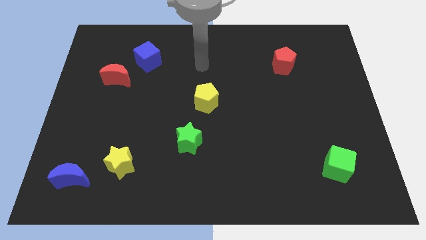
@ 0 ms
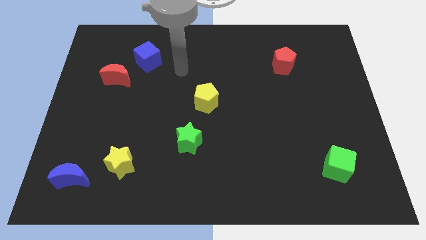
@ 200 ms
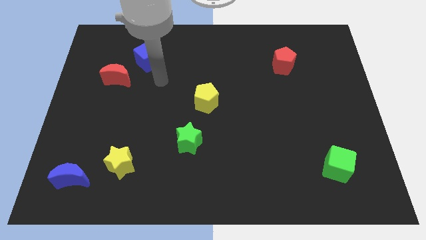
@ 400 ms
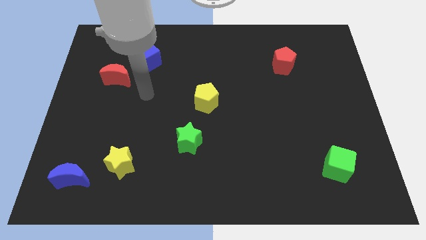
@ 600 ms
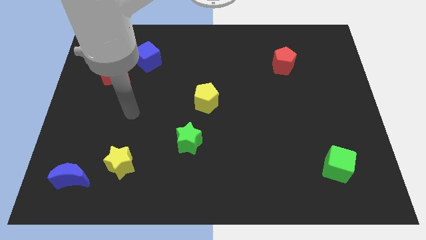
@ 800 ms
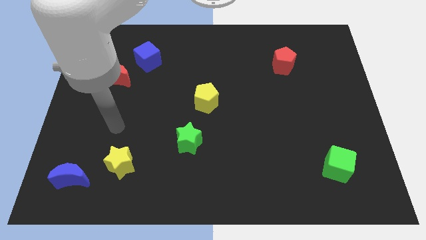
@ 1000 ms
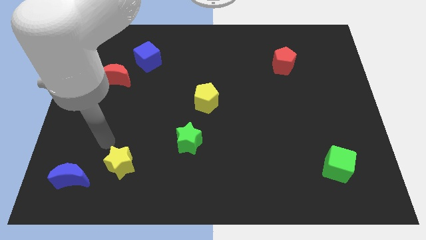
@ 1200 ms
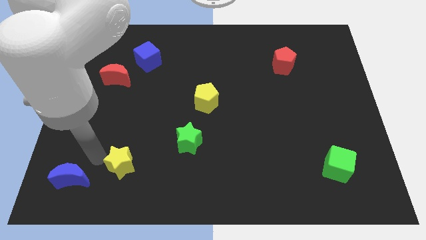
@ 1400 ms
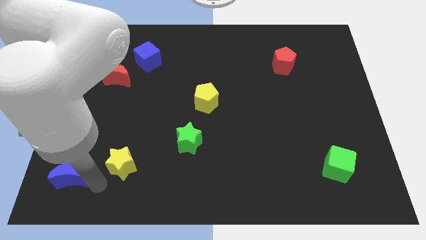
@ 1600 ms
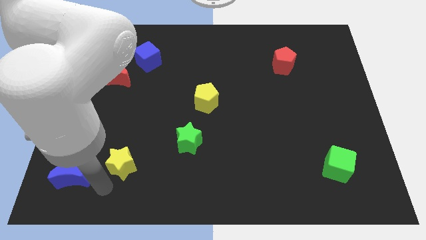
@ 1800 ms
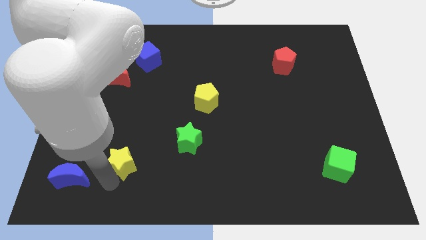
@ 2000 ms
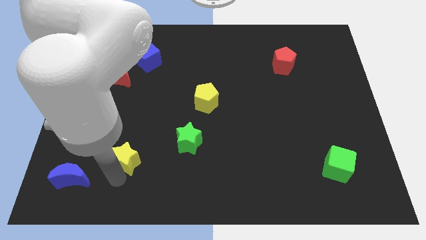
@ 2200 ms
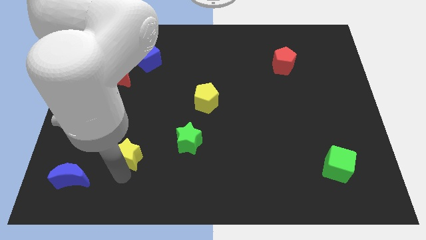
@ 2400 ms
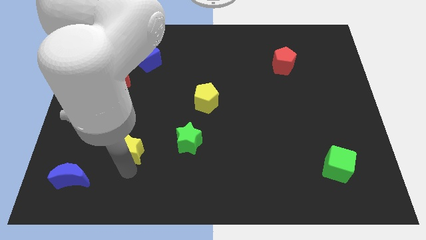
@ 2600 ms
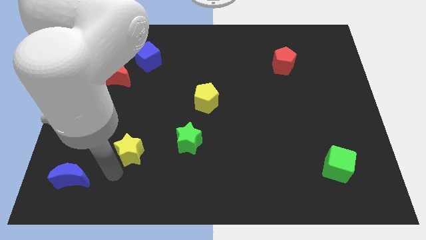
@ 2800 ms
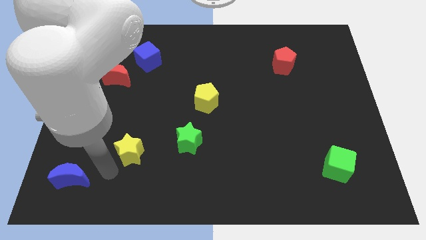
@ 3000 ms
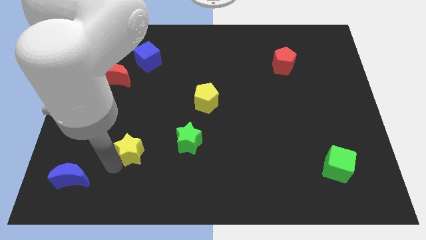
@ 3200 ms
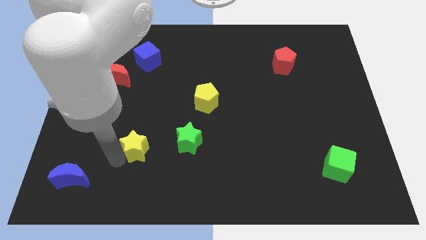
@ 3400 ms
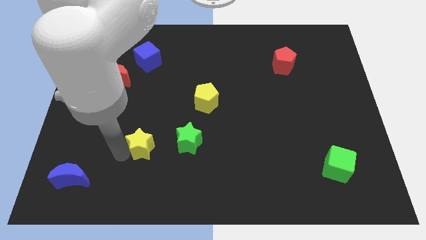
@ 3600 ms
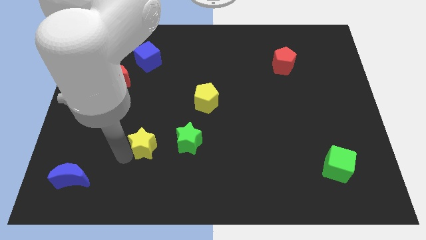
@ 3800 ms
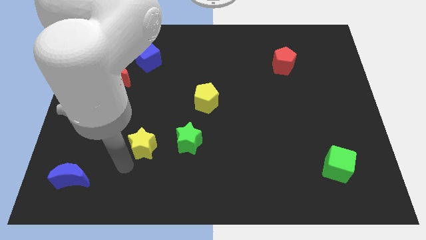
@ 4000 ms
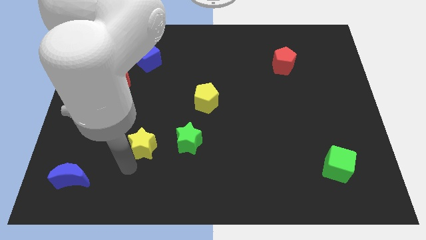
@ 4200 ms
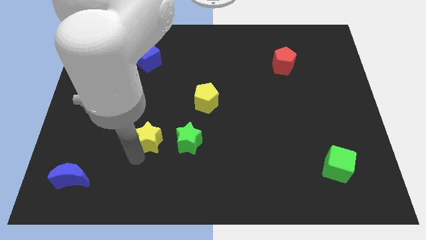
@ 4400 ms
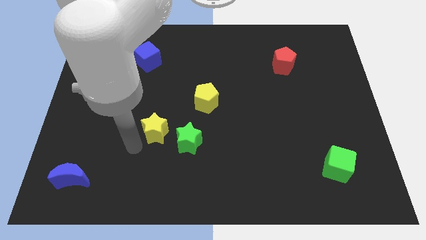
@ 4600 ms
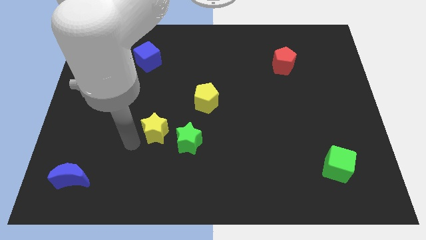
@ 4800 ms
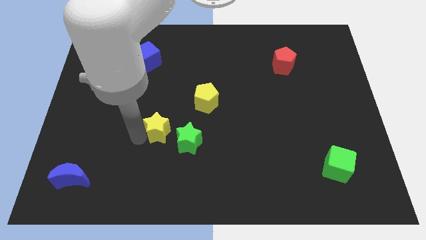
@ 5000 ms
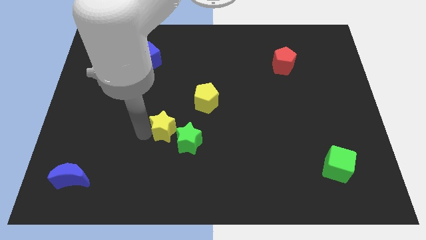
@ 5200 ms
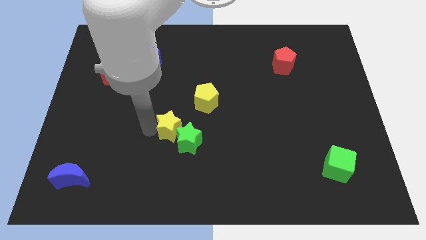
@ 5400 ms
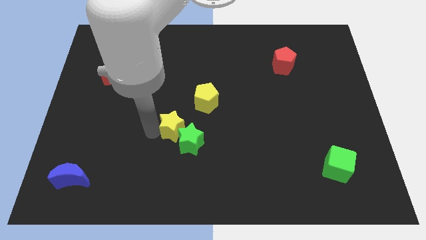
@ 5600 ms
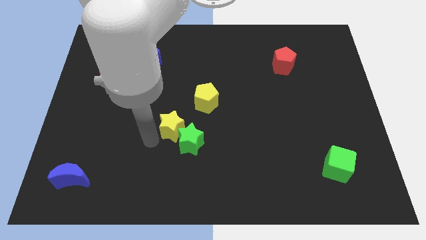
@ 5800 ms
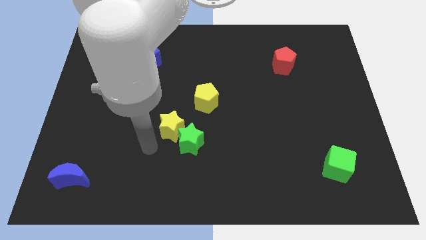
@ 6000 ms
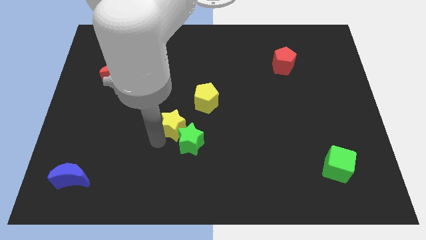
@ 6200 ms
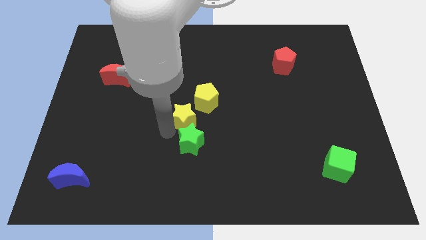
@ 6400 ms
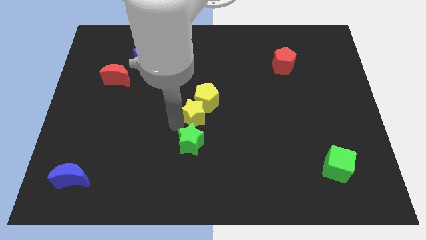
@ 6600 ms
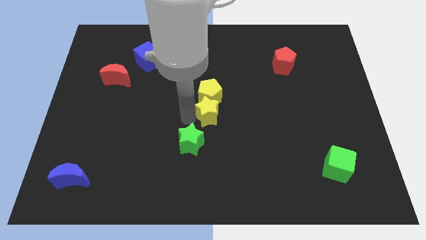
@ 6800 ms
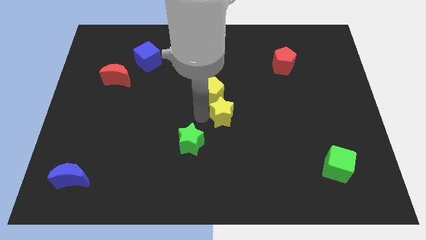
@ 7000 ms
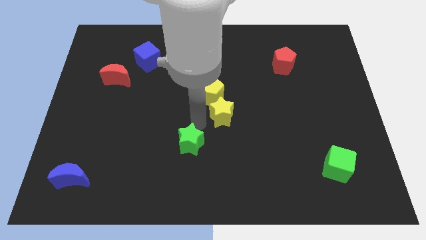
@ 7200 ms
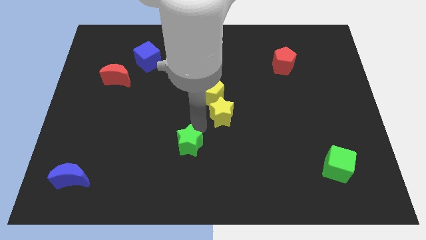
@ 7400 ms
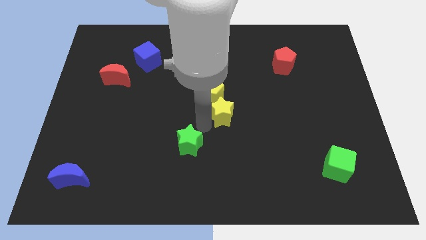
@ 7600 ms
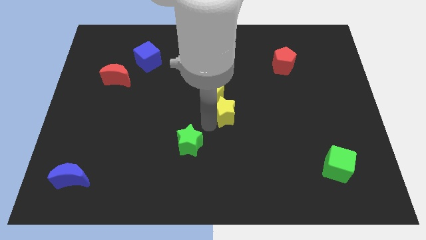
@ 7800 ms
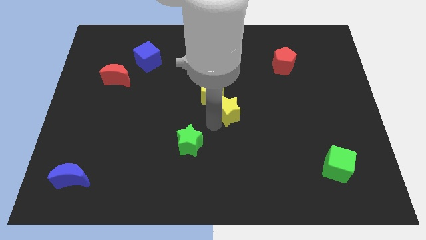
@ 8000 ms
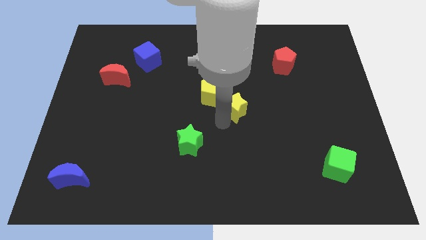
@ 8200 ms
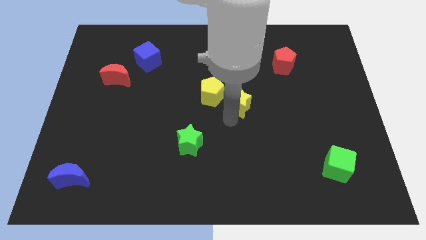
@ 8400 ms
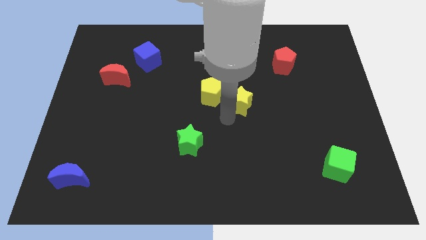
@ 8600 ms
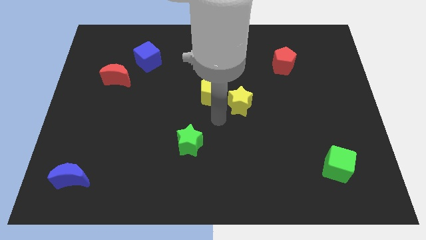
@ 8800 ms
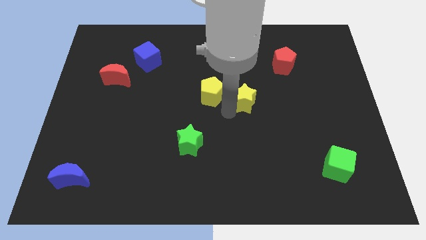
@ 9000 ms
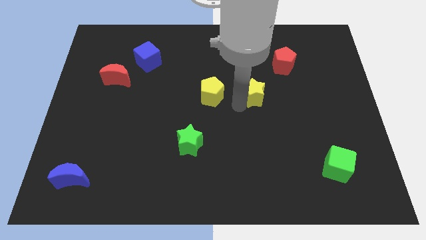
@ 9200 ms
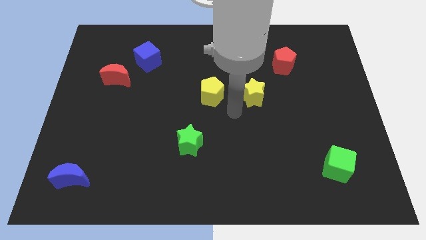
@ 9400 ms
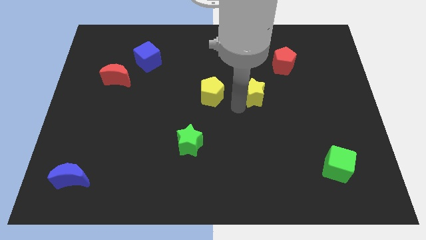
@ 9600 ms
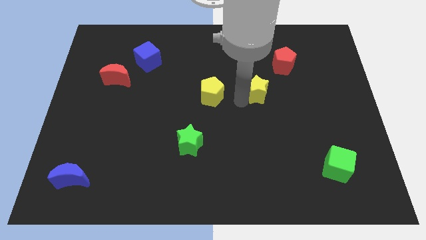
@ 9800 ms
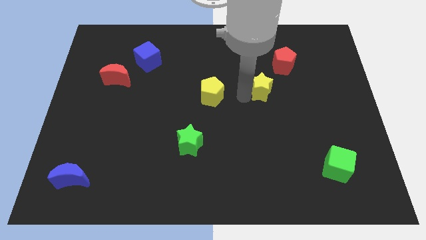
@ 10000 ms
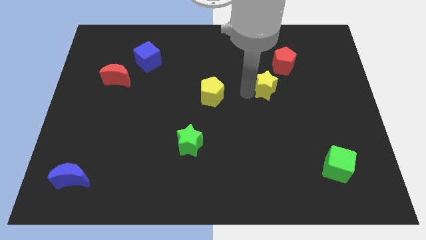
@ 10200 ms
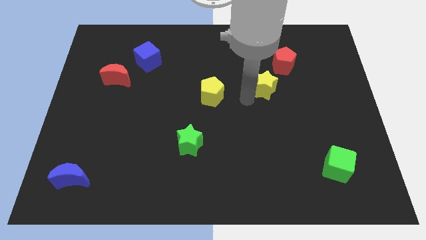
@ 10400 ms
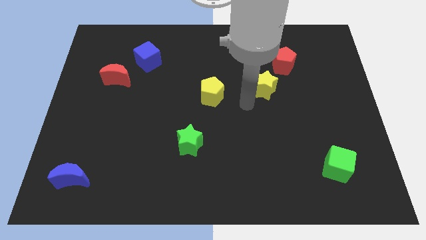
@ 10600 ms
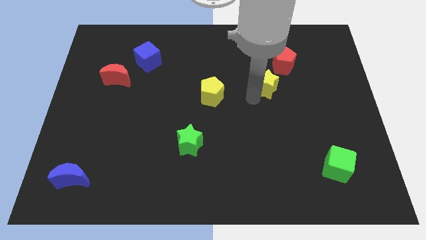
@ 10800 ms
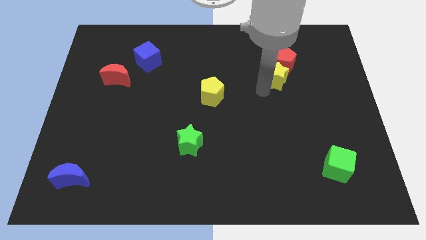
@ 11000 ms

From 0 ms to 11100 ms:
slide the yellow star next to the red pentagon

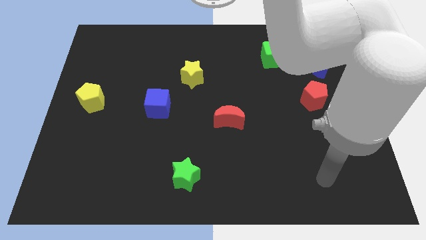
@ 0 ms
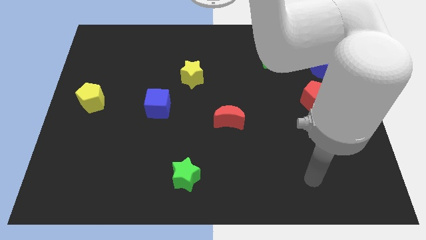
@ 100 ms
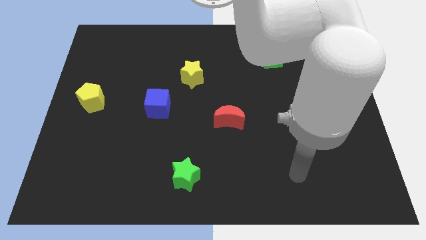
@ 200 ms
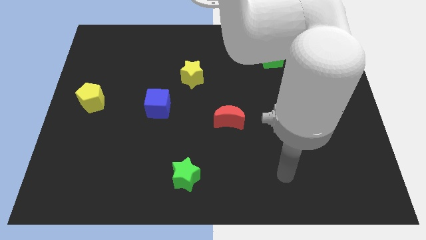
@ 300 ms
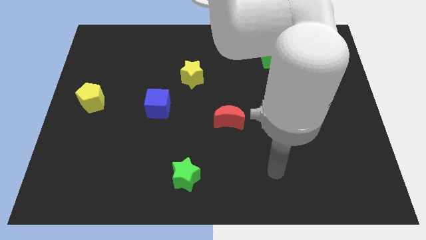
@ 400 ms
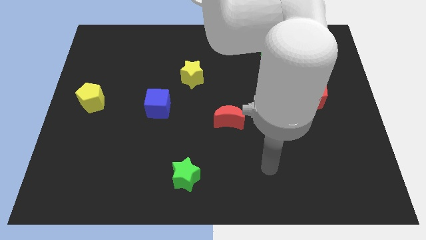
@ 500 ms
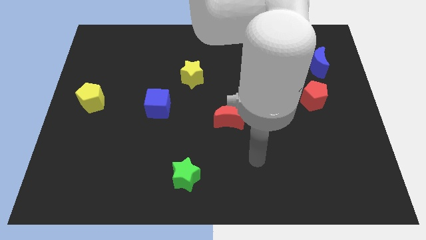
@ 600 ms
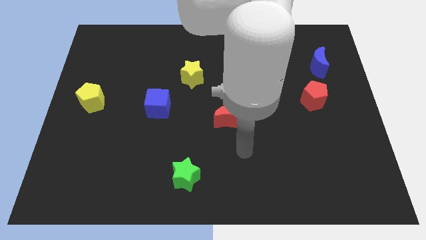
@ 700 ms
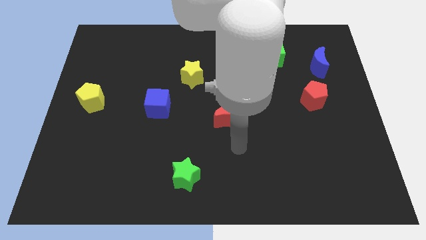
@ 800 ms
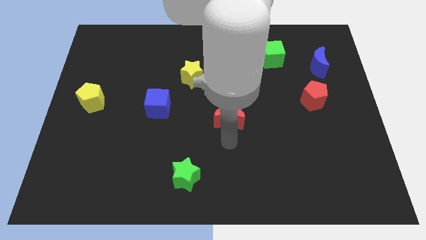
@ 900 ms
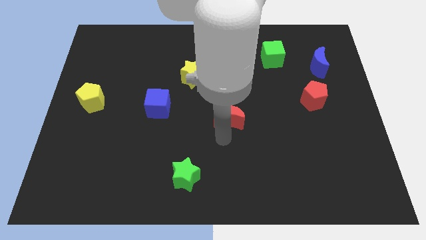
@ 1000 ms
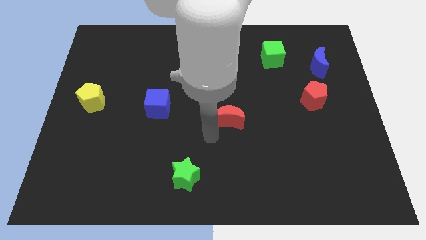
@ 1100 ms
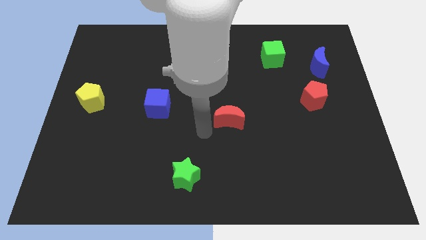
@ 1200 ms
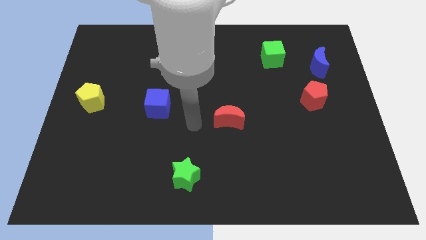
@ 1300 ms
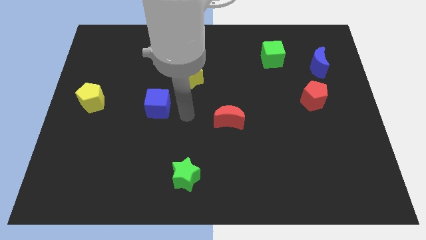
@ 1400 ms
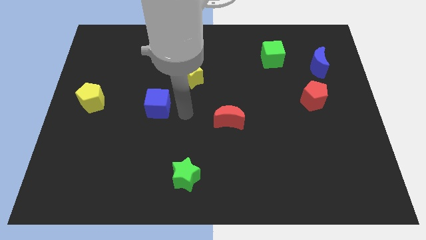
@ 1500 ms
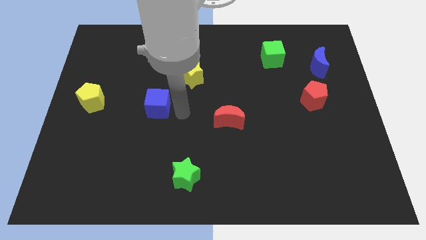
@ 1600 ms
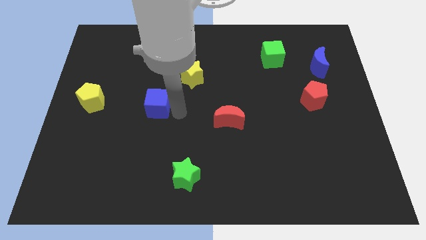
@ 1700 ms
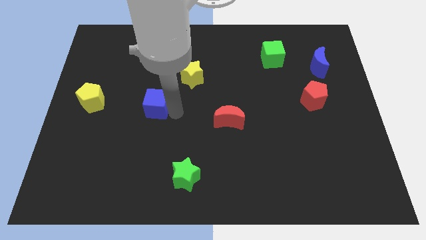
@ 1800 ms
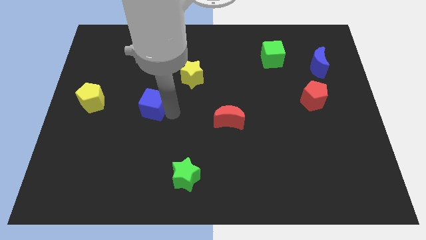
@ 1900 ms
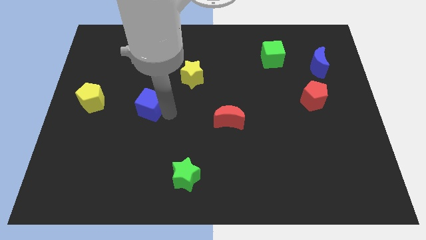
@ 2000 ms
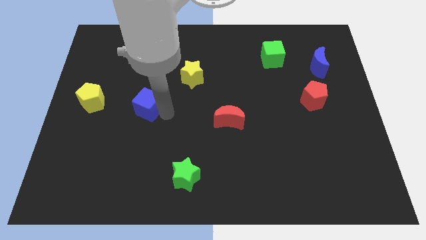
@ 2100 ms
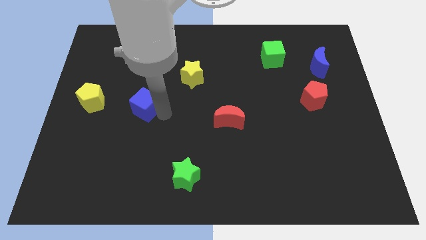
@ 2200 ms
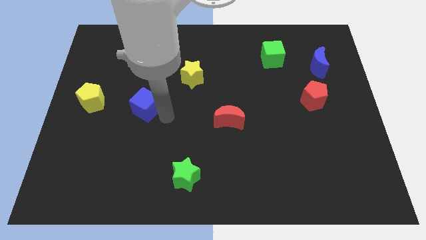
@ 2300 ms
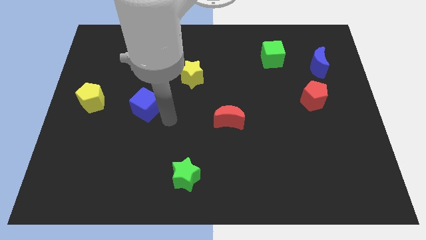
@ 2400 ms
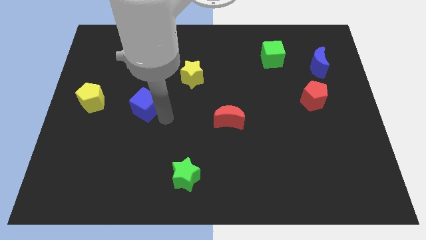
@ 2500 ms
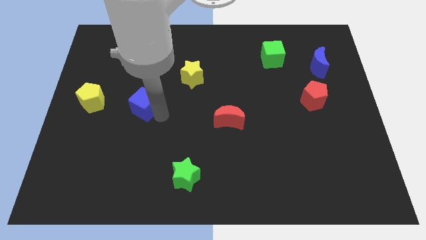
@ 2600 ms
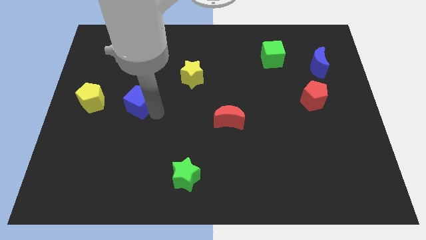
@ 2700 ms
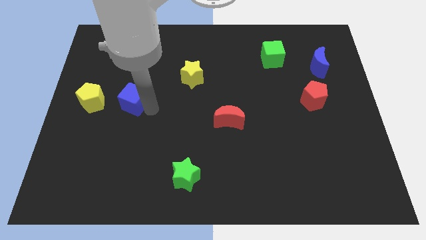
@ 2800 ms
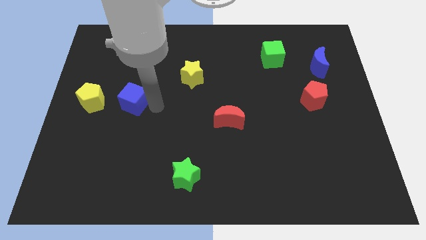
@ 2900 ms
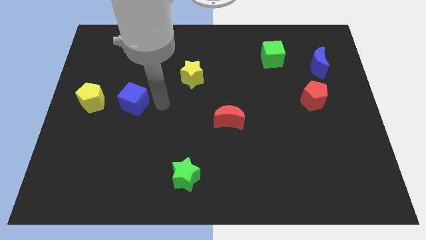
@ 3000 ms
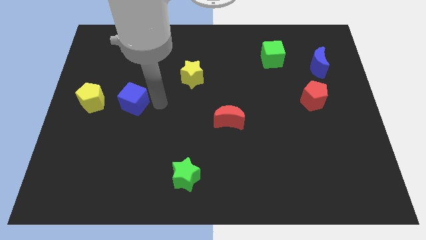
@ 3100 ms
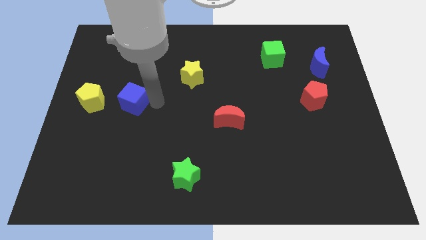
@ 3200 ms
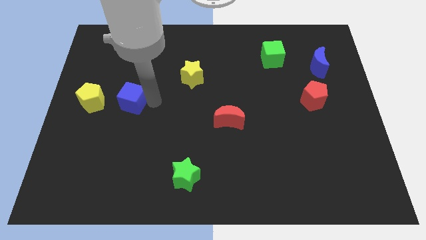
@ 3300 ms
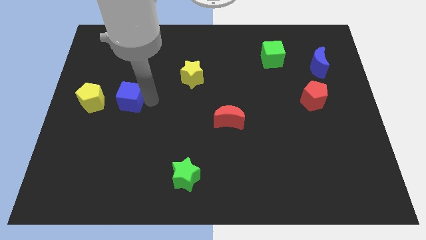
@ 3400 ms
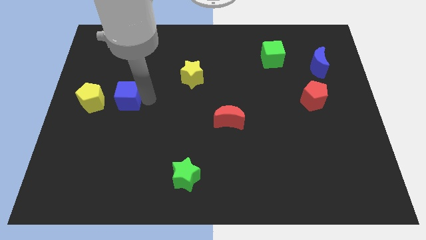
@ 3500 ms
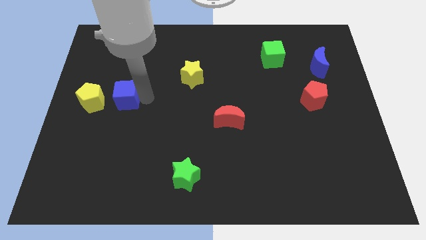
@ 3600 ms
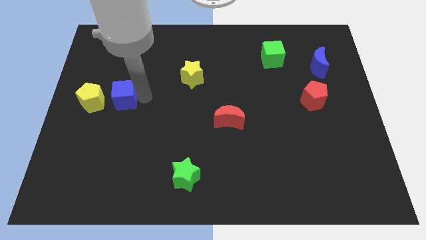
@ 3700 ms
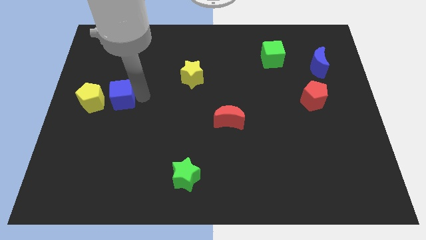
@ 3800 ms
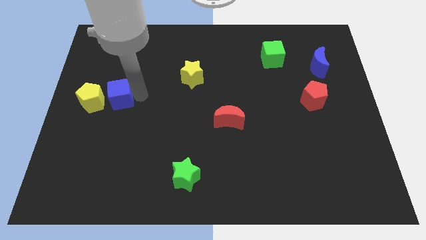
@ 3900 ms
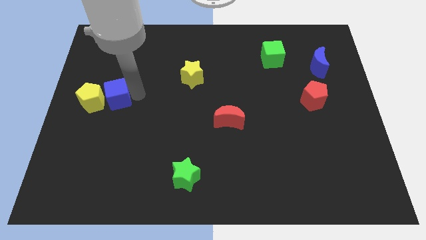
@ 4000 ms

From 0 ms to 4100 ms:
move the blue cube next to the yellow pentagon
